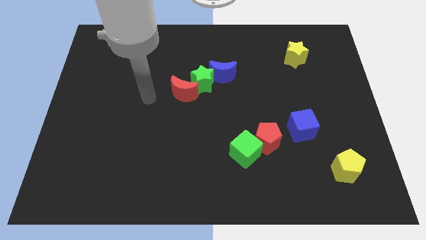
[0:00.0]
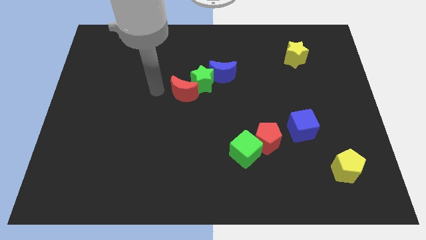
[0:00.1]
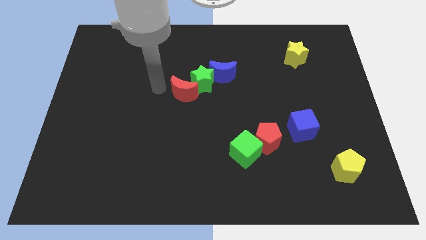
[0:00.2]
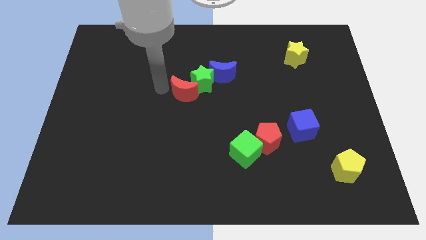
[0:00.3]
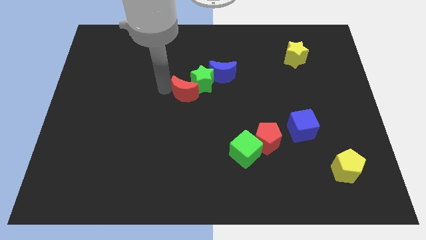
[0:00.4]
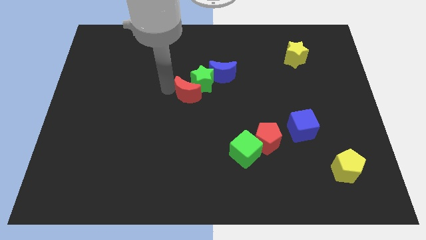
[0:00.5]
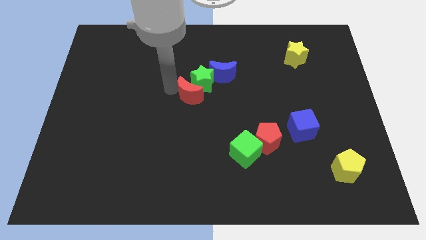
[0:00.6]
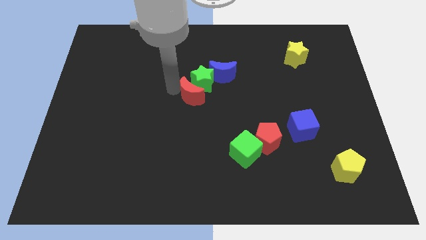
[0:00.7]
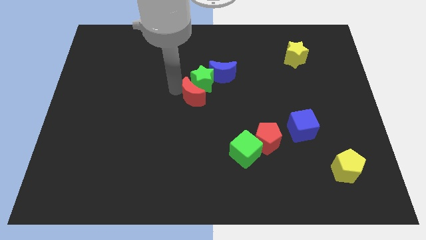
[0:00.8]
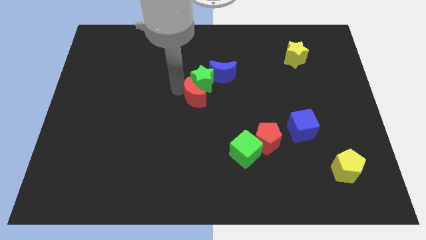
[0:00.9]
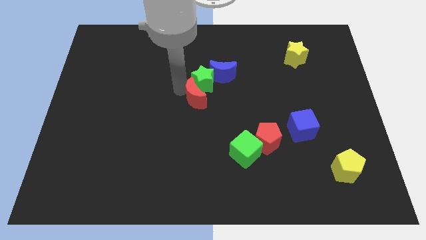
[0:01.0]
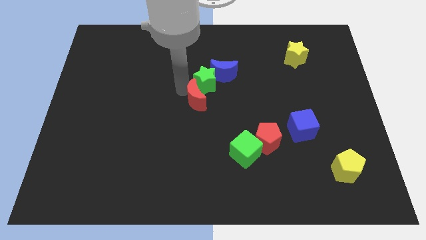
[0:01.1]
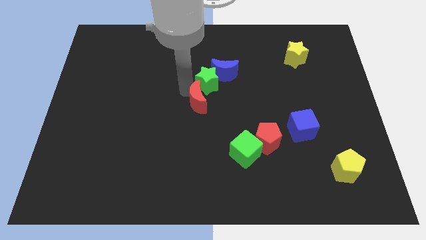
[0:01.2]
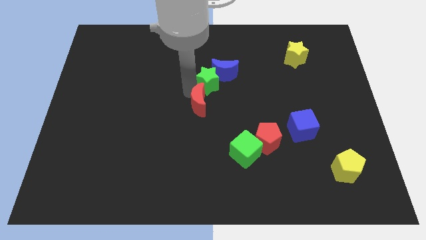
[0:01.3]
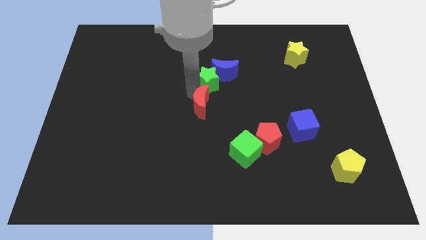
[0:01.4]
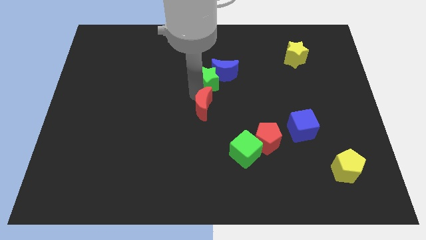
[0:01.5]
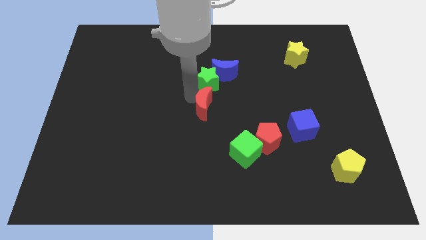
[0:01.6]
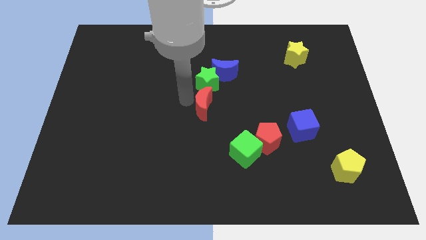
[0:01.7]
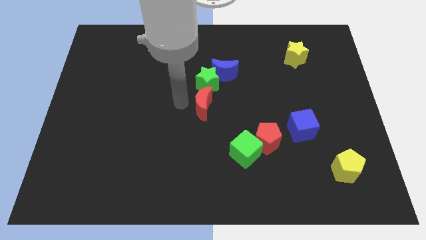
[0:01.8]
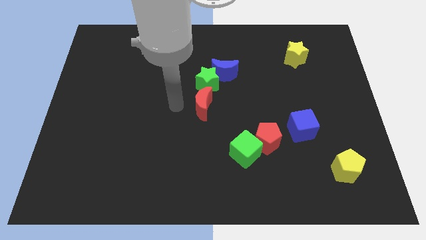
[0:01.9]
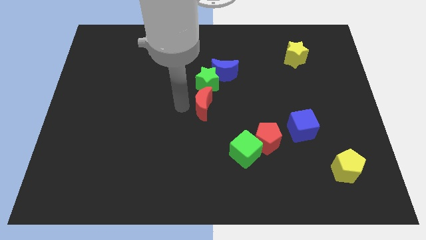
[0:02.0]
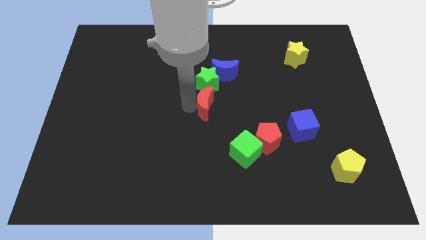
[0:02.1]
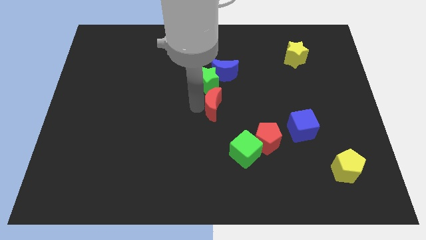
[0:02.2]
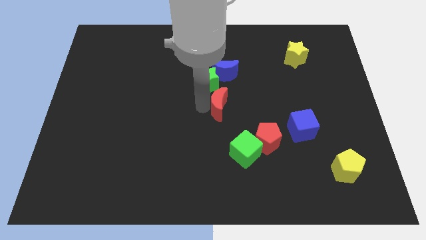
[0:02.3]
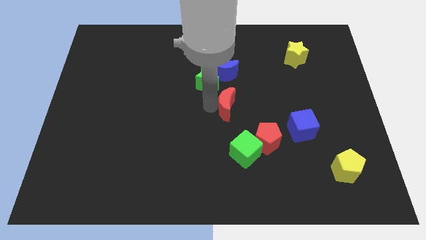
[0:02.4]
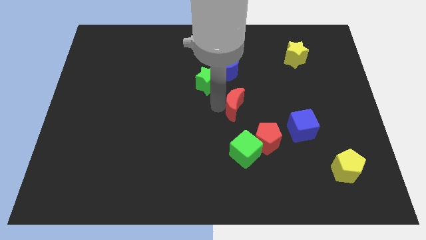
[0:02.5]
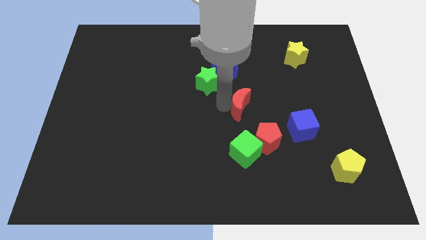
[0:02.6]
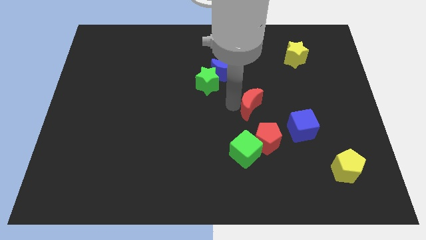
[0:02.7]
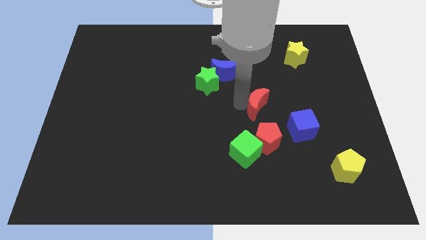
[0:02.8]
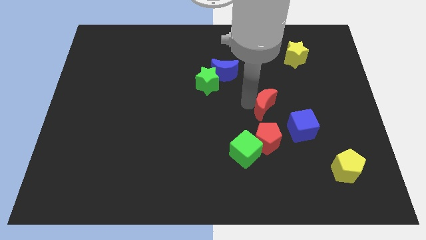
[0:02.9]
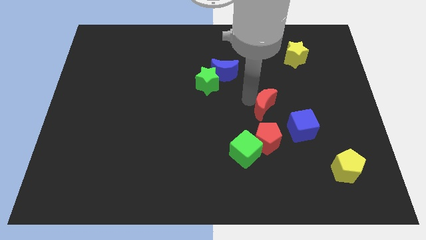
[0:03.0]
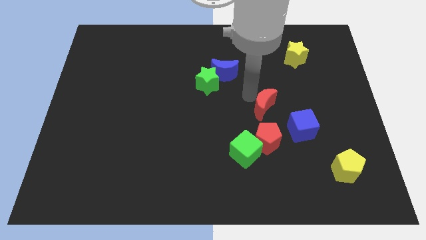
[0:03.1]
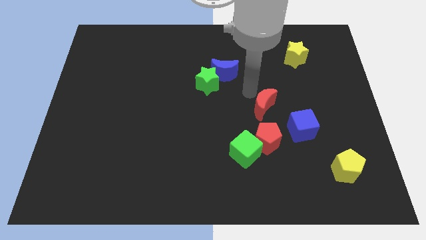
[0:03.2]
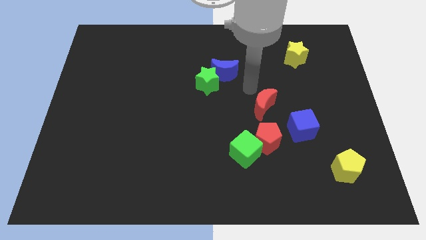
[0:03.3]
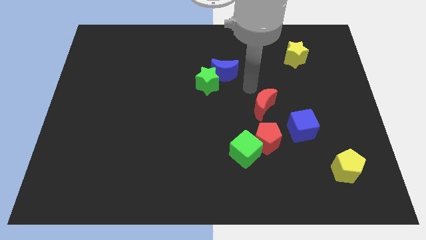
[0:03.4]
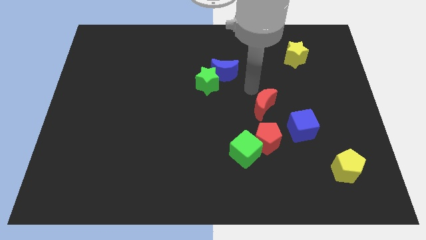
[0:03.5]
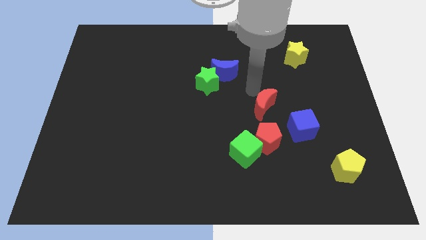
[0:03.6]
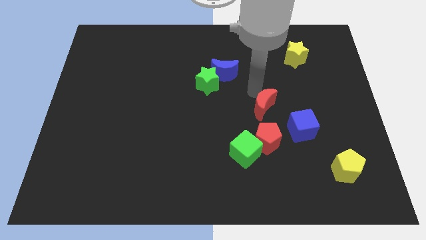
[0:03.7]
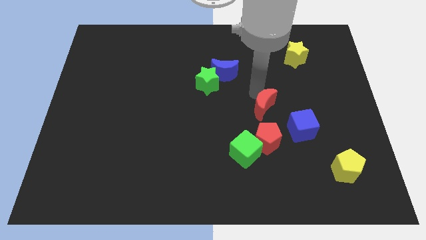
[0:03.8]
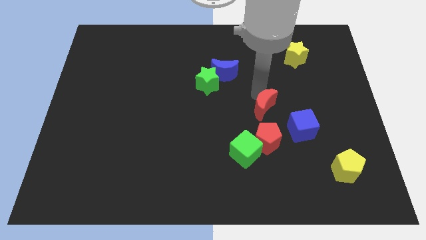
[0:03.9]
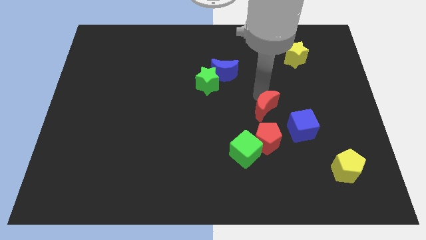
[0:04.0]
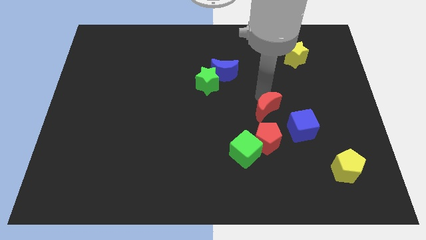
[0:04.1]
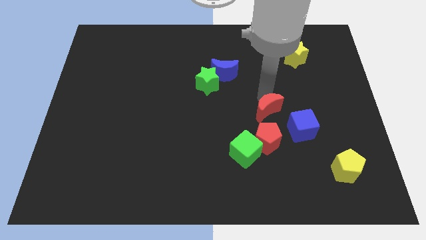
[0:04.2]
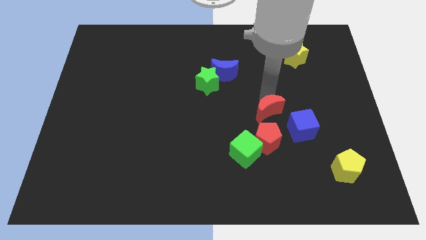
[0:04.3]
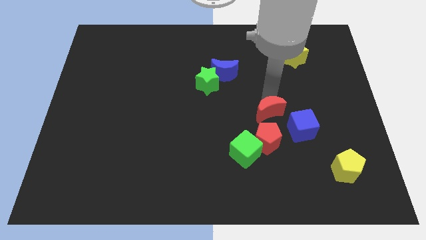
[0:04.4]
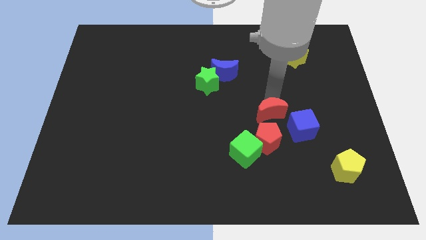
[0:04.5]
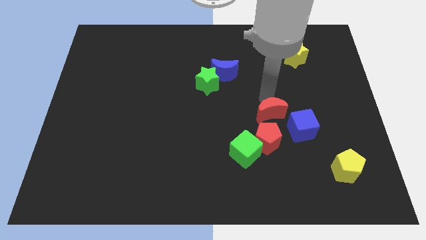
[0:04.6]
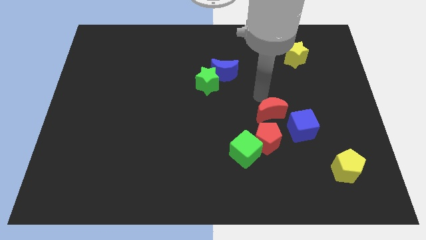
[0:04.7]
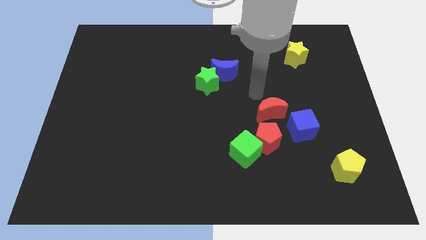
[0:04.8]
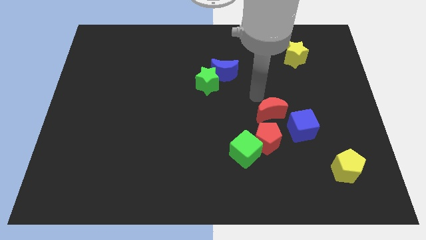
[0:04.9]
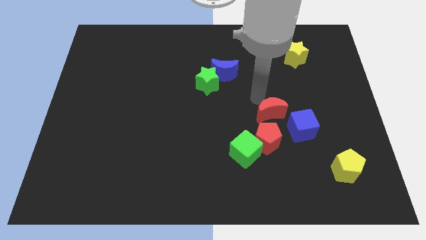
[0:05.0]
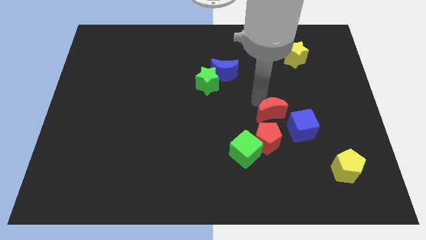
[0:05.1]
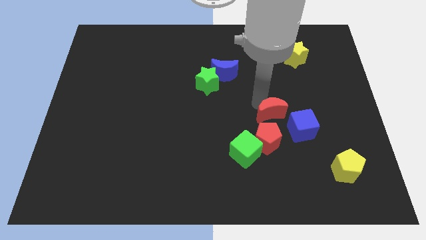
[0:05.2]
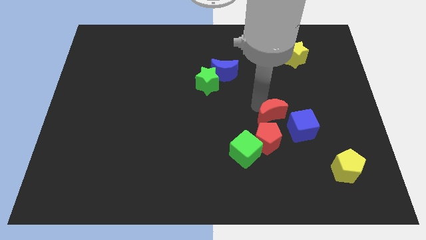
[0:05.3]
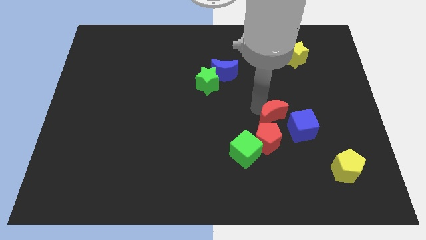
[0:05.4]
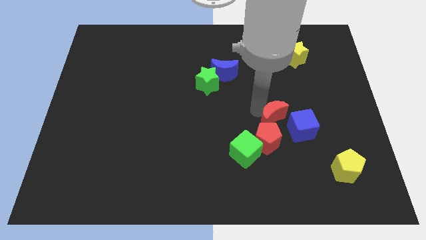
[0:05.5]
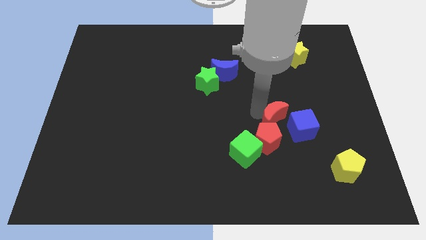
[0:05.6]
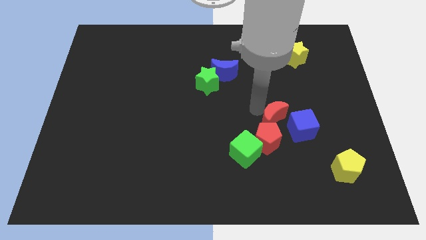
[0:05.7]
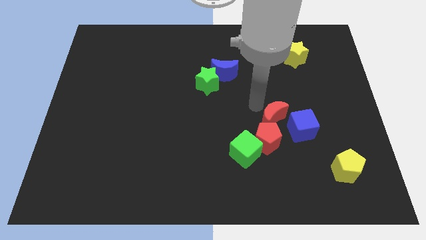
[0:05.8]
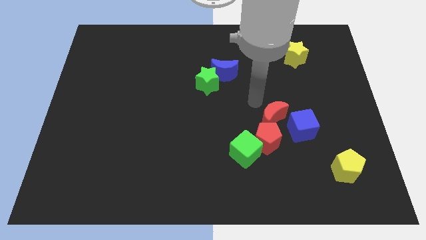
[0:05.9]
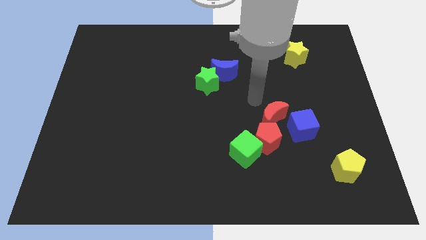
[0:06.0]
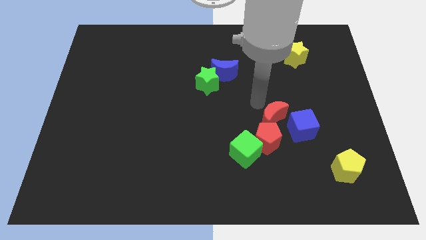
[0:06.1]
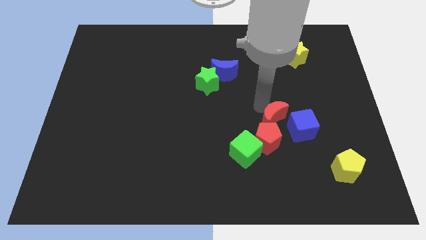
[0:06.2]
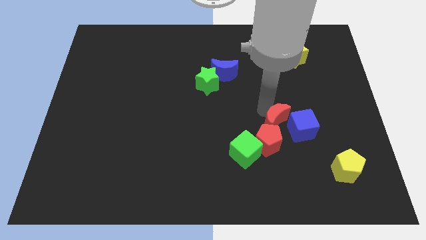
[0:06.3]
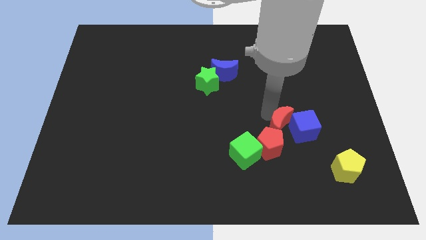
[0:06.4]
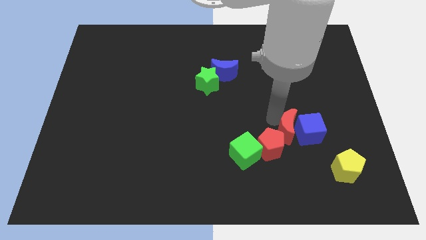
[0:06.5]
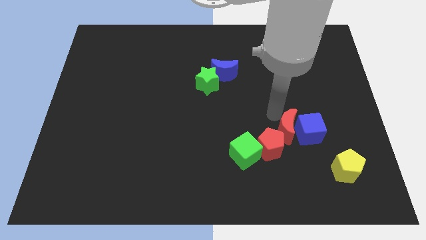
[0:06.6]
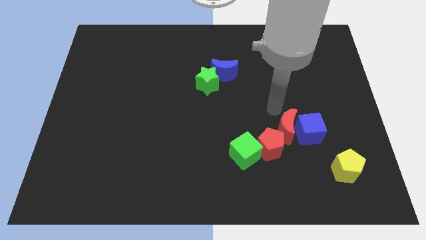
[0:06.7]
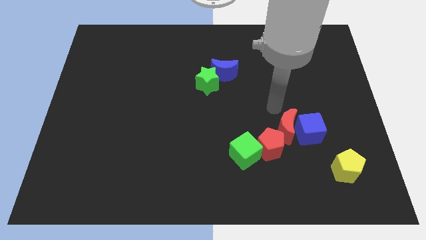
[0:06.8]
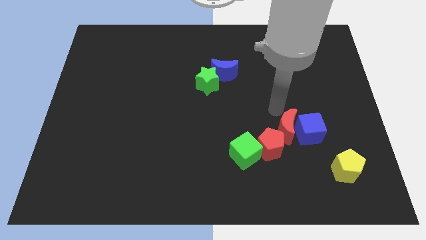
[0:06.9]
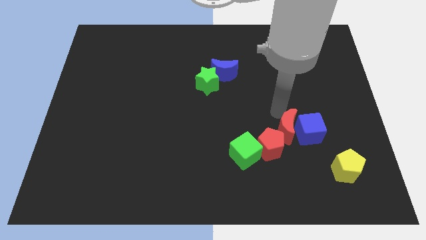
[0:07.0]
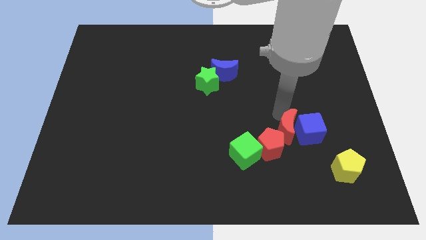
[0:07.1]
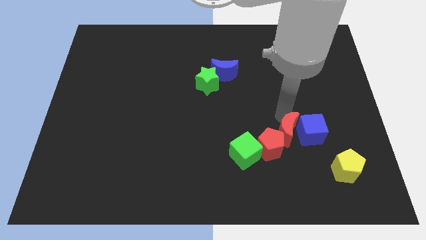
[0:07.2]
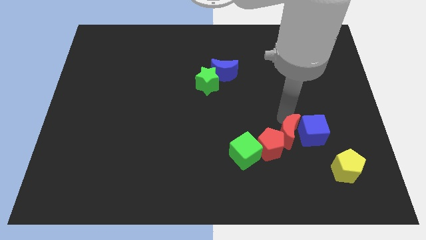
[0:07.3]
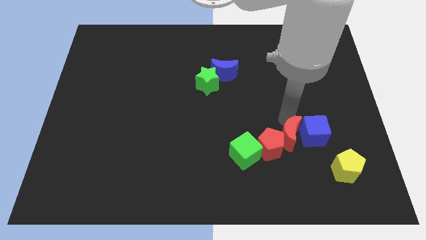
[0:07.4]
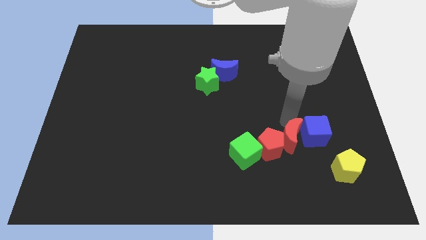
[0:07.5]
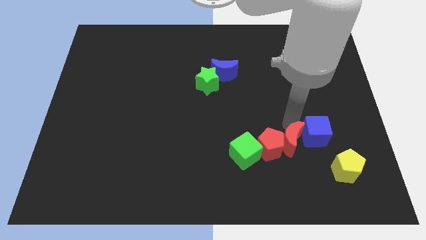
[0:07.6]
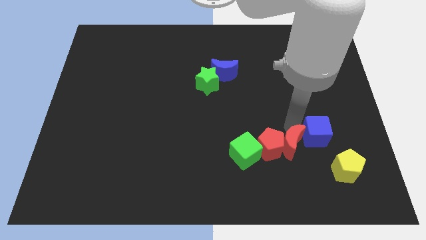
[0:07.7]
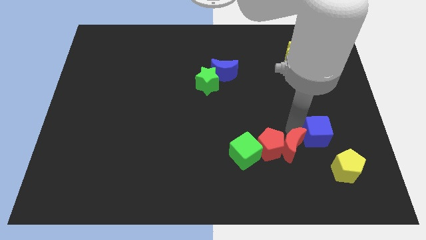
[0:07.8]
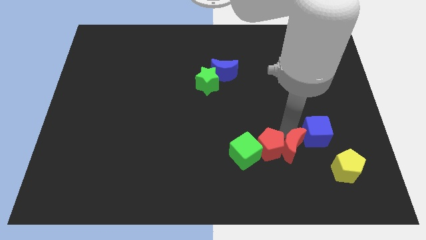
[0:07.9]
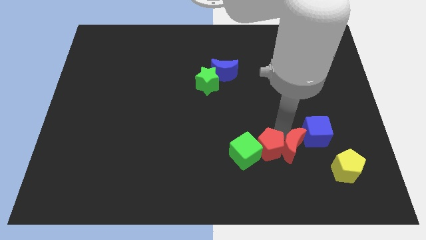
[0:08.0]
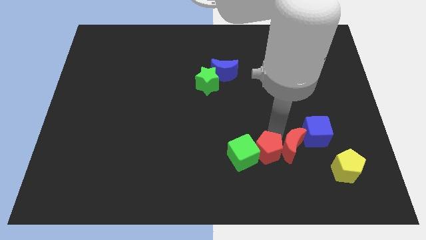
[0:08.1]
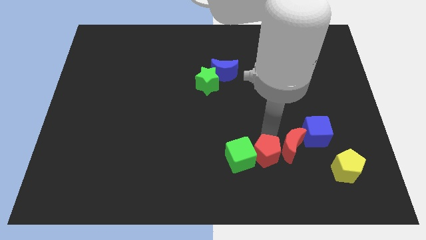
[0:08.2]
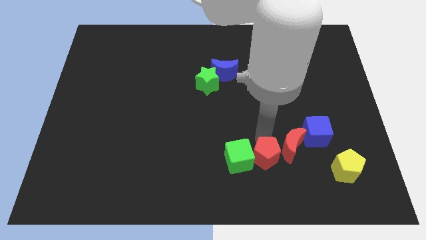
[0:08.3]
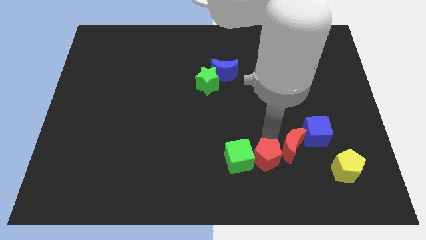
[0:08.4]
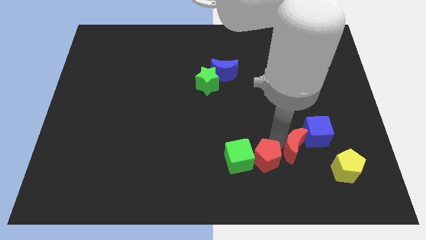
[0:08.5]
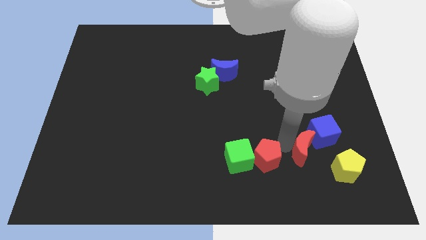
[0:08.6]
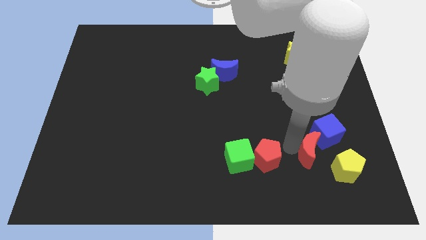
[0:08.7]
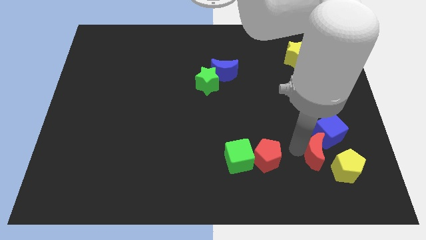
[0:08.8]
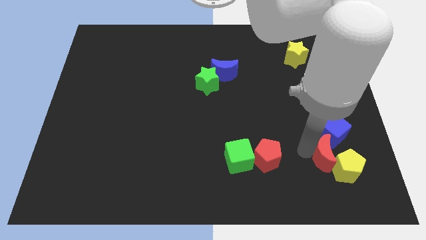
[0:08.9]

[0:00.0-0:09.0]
push the red moon next to the yellow pentagon
